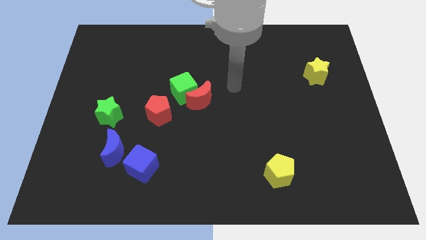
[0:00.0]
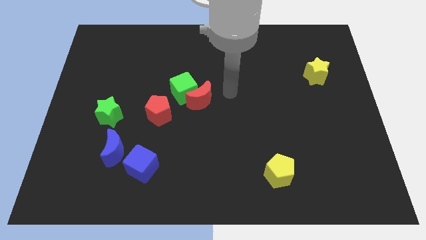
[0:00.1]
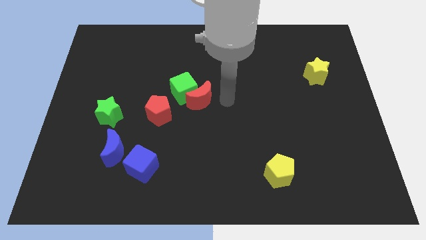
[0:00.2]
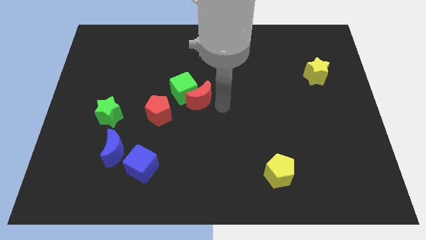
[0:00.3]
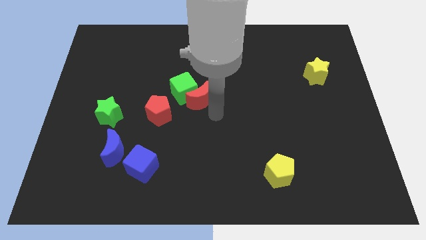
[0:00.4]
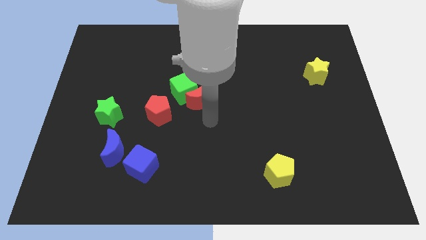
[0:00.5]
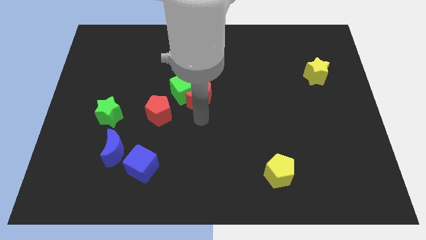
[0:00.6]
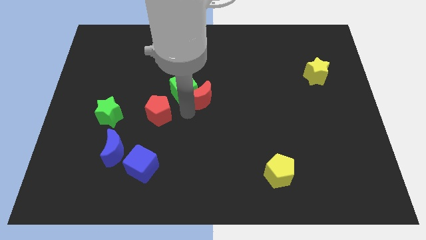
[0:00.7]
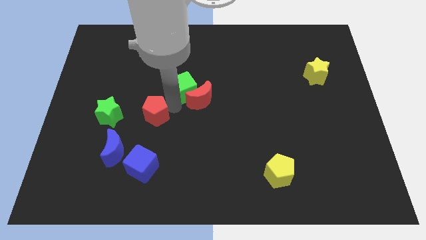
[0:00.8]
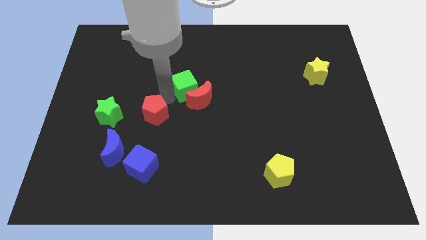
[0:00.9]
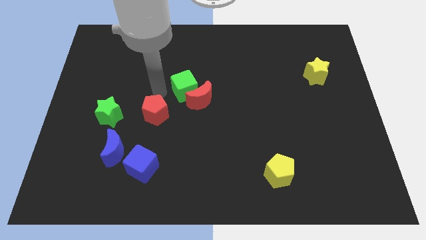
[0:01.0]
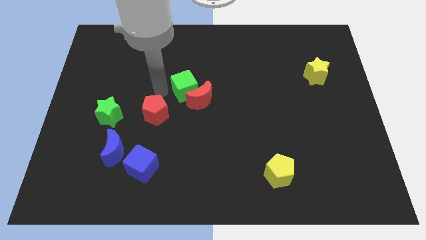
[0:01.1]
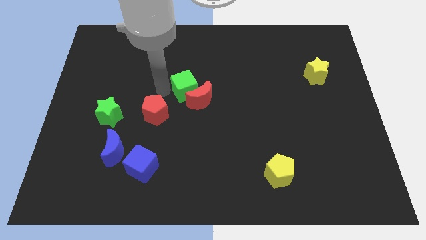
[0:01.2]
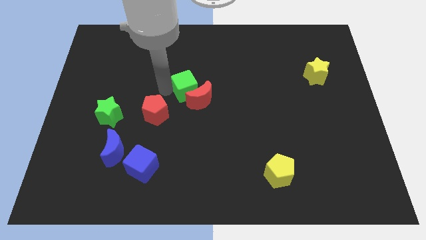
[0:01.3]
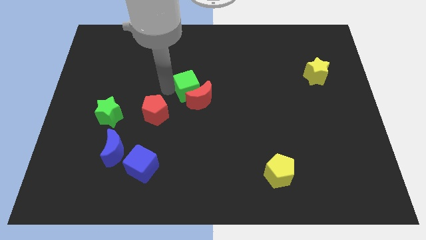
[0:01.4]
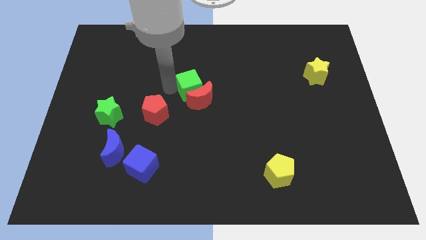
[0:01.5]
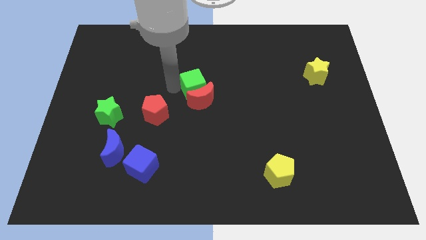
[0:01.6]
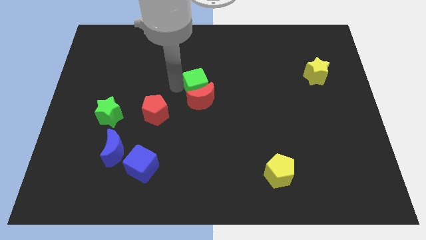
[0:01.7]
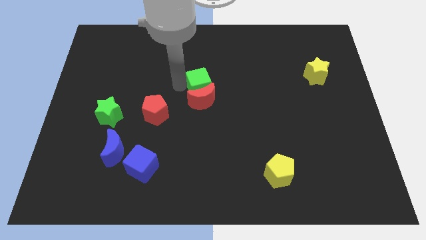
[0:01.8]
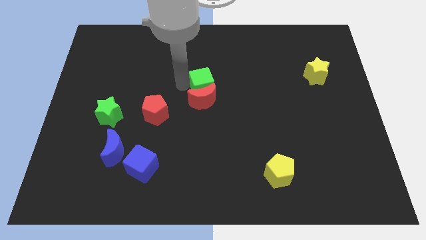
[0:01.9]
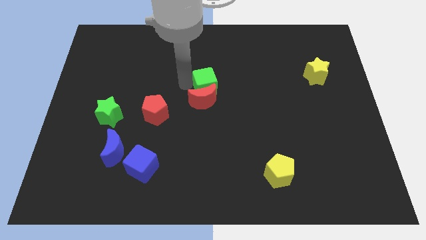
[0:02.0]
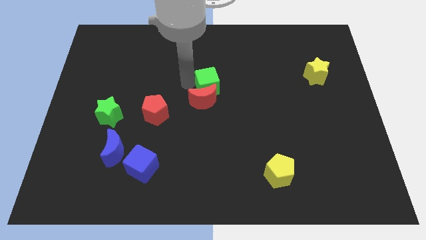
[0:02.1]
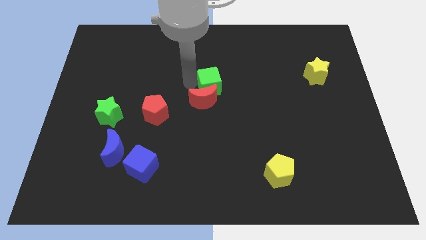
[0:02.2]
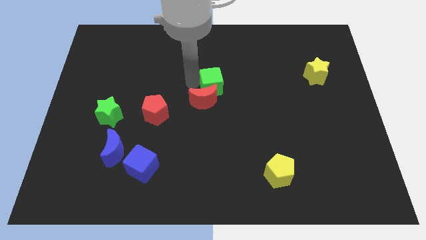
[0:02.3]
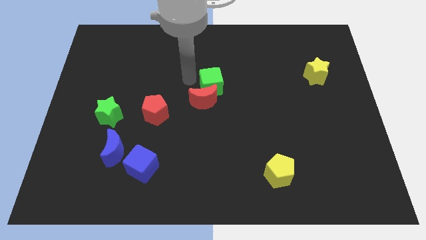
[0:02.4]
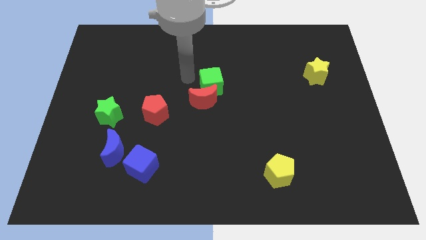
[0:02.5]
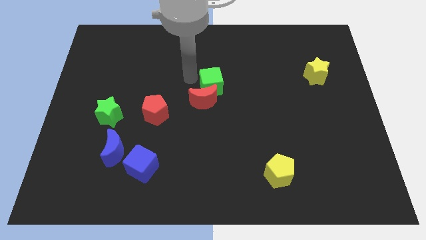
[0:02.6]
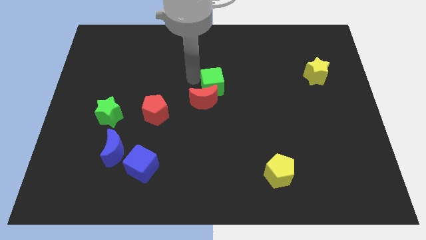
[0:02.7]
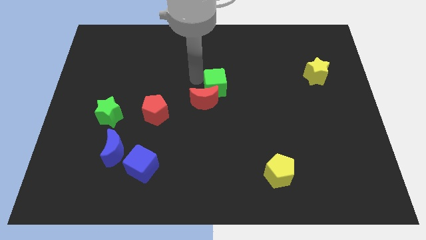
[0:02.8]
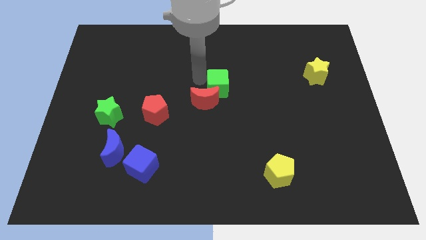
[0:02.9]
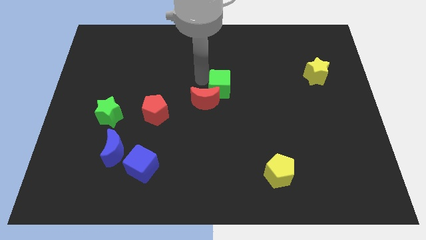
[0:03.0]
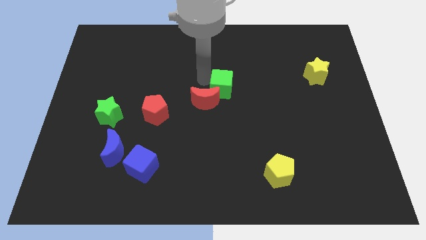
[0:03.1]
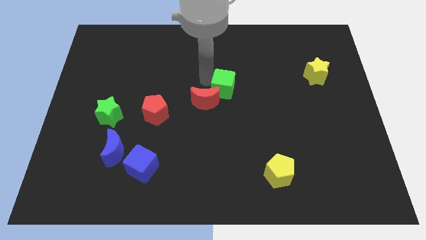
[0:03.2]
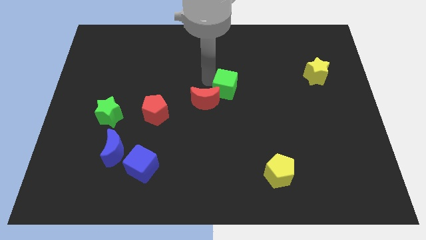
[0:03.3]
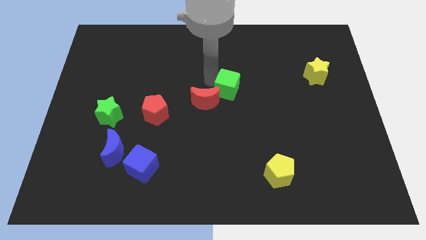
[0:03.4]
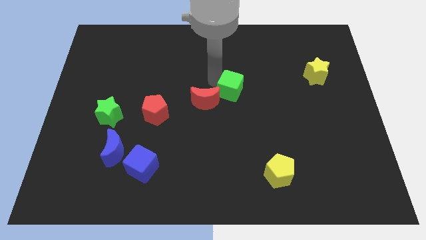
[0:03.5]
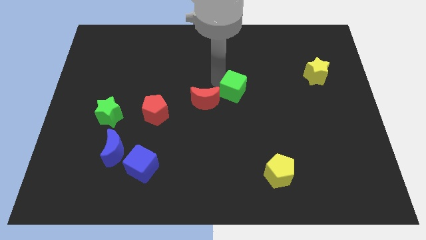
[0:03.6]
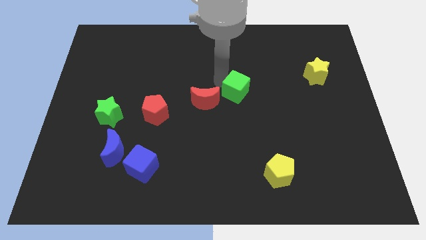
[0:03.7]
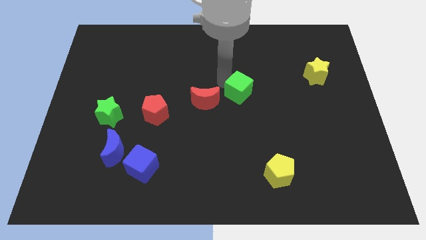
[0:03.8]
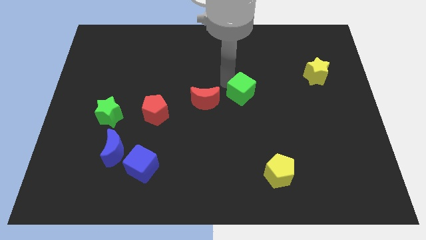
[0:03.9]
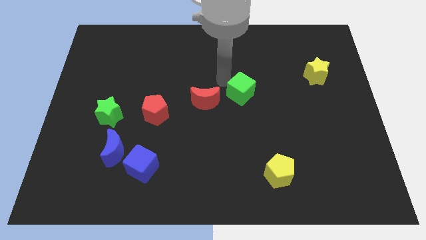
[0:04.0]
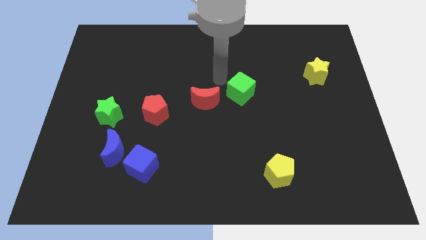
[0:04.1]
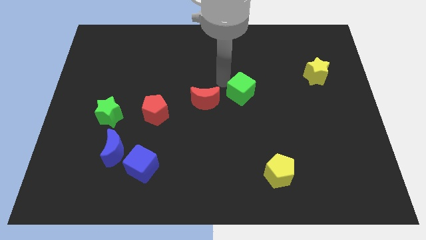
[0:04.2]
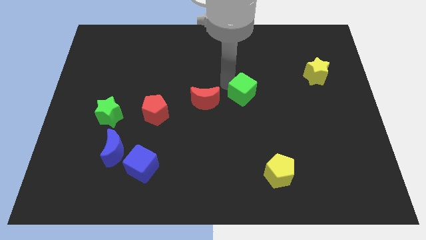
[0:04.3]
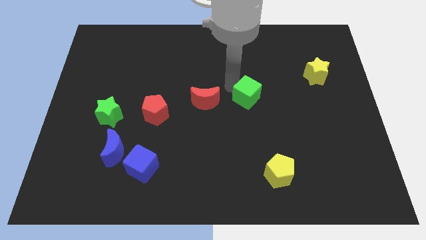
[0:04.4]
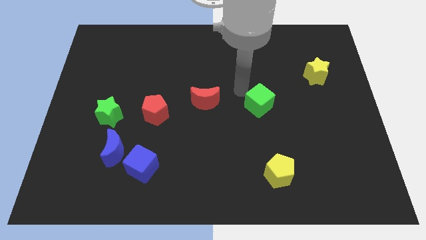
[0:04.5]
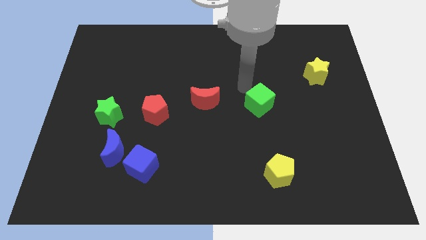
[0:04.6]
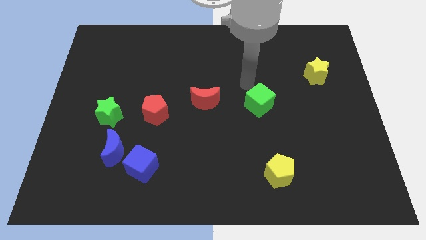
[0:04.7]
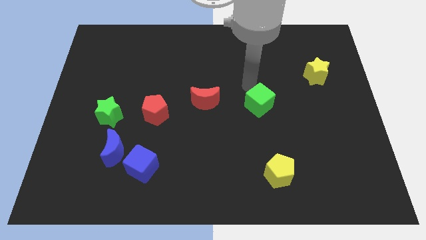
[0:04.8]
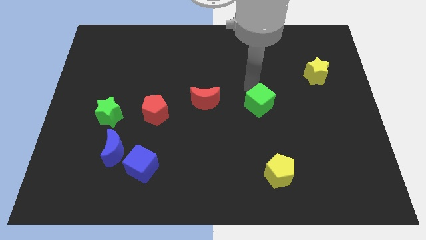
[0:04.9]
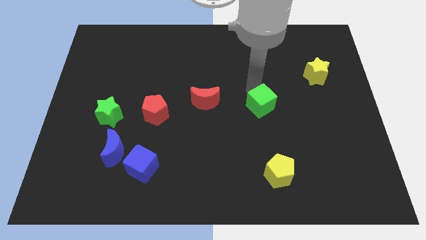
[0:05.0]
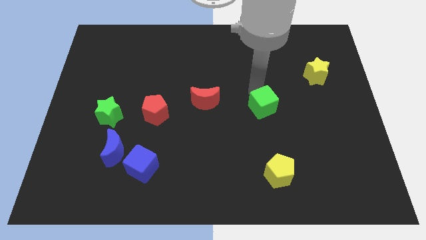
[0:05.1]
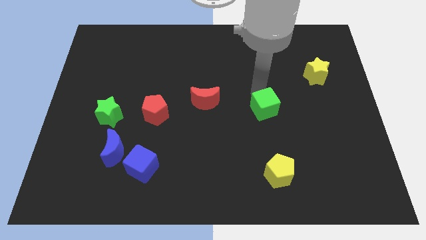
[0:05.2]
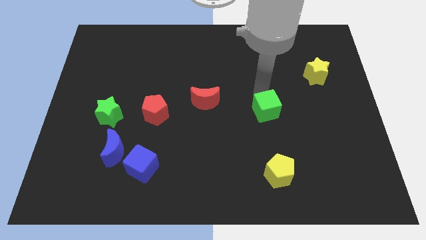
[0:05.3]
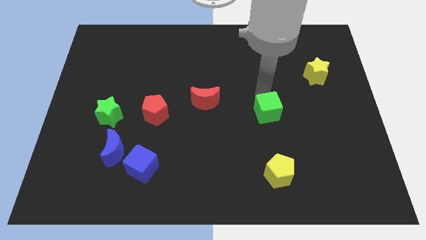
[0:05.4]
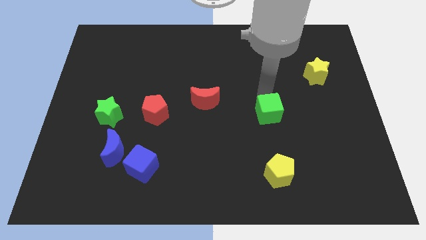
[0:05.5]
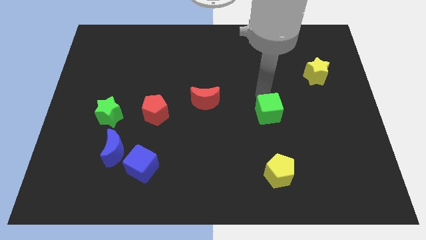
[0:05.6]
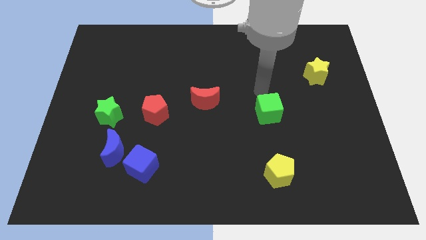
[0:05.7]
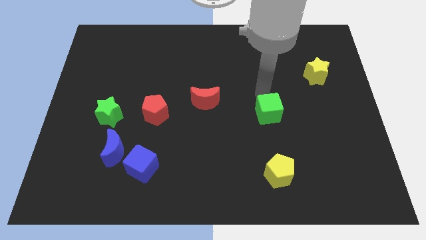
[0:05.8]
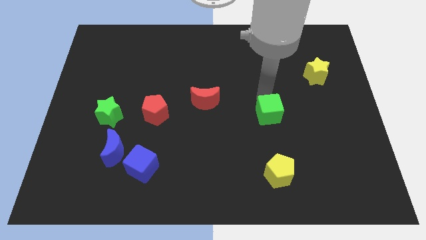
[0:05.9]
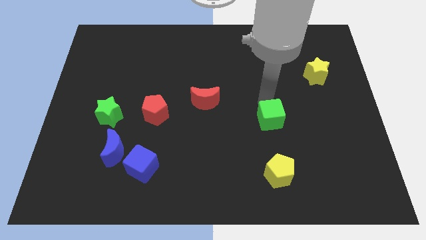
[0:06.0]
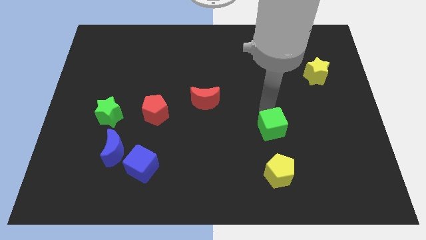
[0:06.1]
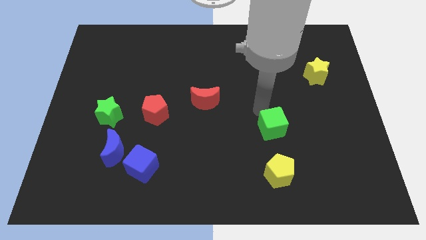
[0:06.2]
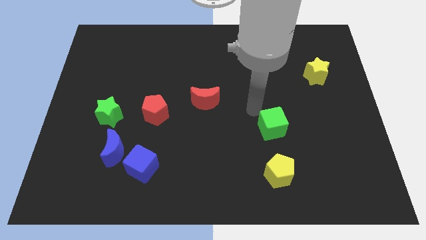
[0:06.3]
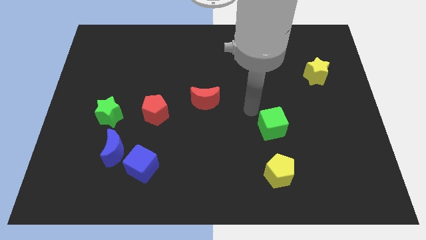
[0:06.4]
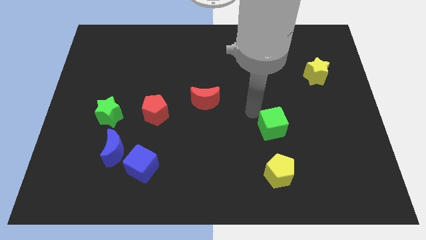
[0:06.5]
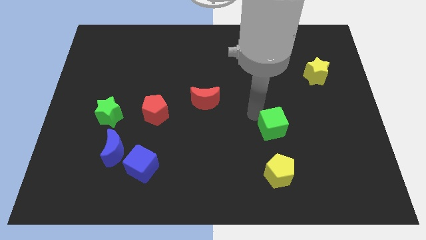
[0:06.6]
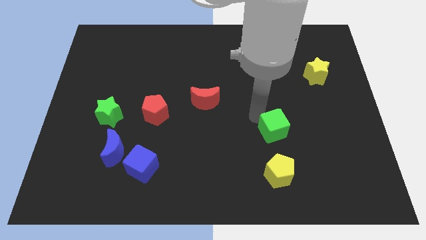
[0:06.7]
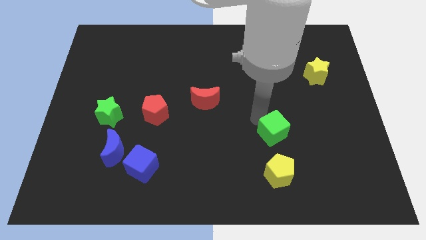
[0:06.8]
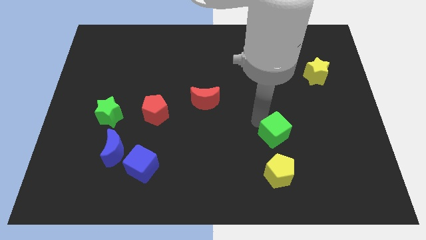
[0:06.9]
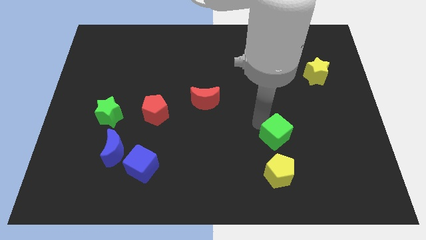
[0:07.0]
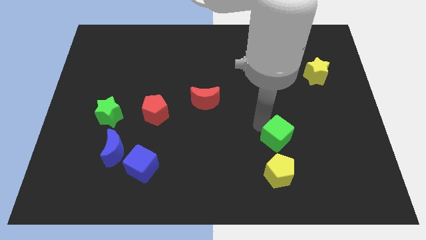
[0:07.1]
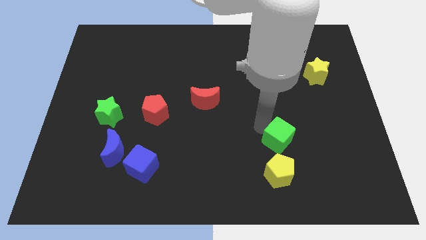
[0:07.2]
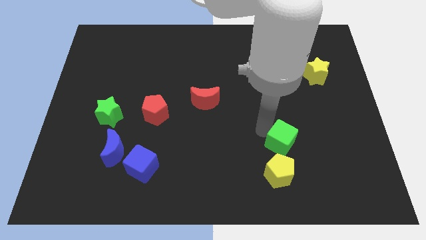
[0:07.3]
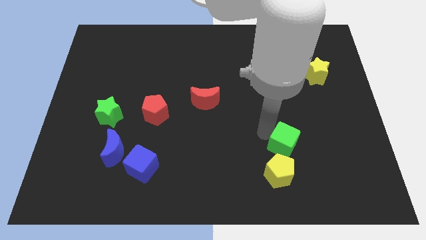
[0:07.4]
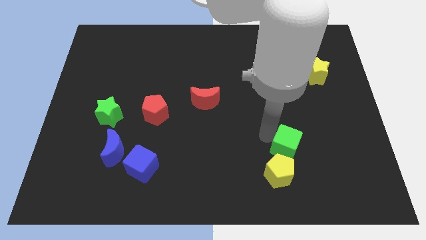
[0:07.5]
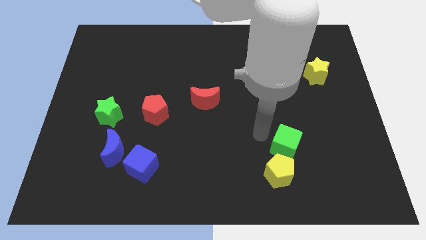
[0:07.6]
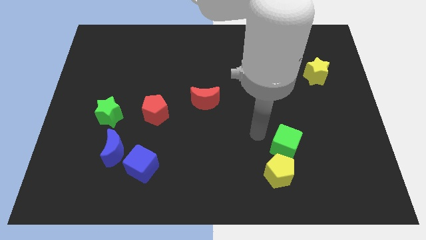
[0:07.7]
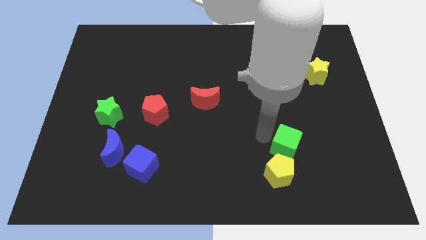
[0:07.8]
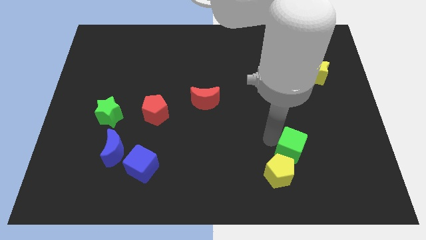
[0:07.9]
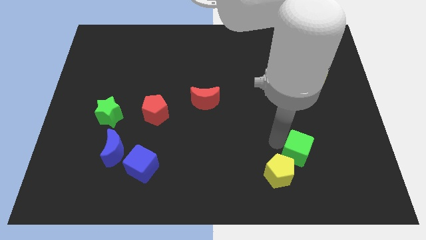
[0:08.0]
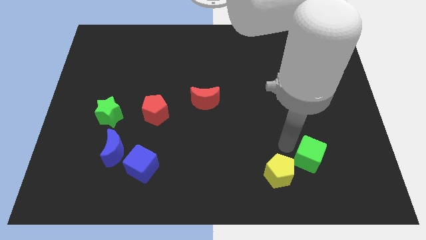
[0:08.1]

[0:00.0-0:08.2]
put the green cube to the right side of the yellow pentagon
